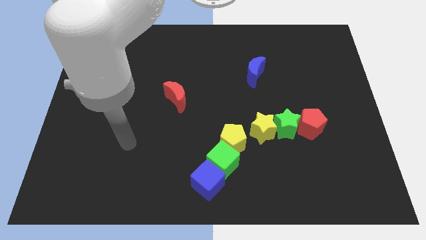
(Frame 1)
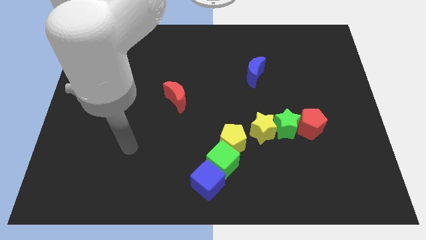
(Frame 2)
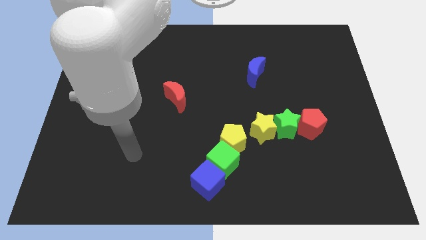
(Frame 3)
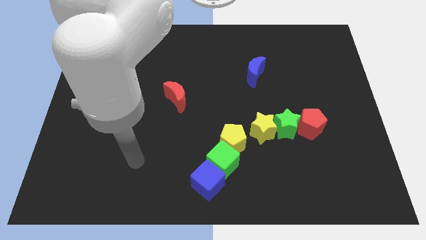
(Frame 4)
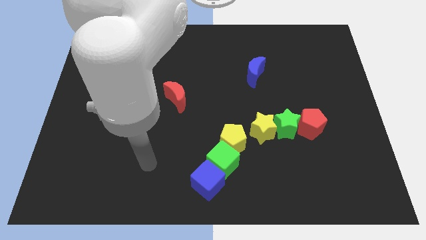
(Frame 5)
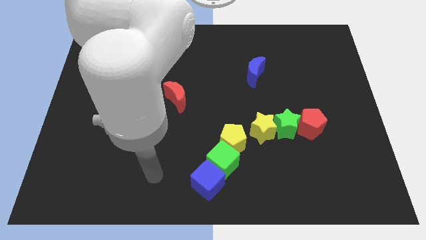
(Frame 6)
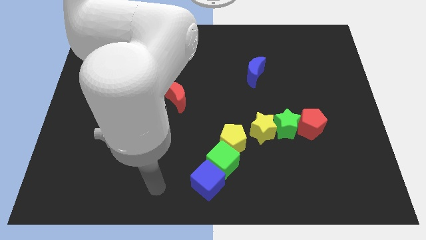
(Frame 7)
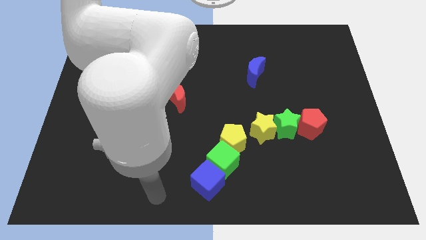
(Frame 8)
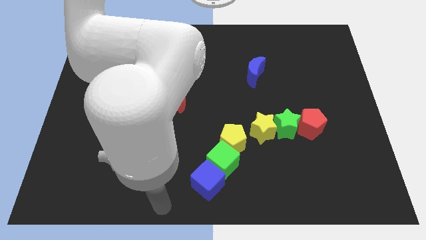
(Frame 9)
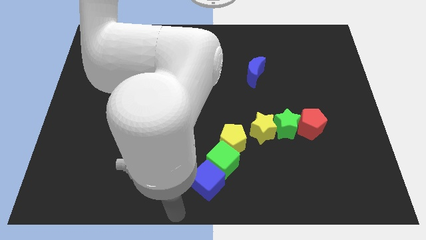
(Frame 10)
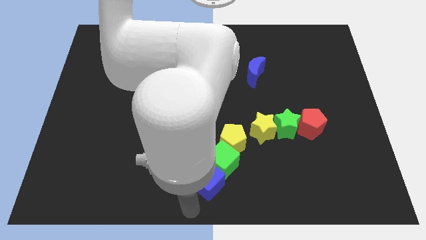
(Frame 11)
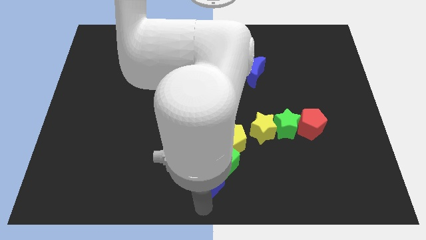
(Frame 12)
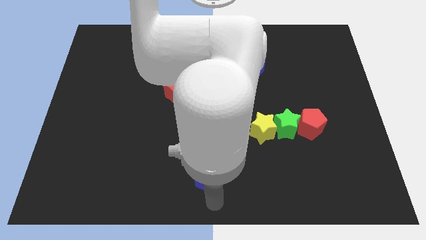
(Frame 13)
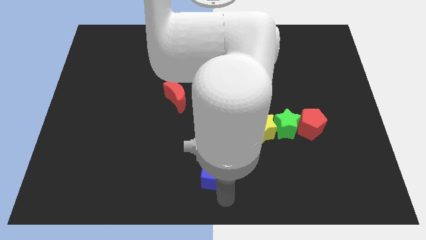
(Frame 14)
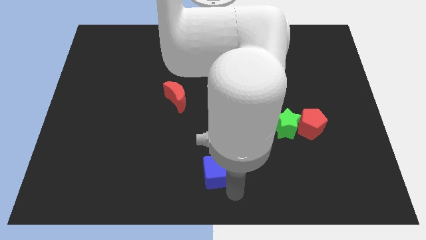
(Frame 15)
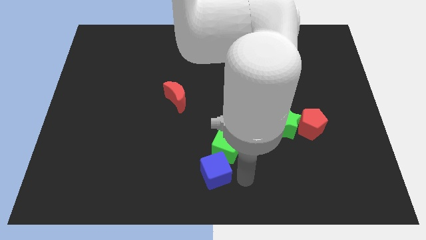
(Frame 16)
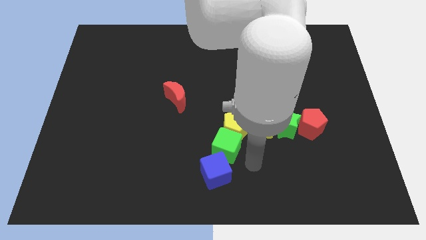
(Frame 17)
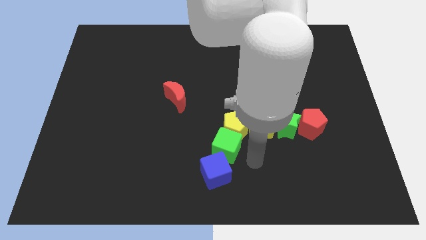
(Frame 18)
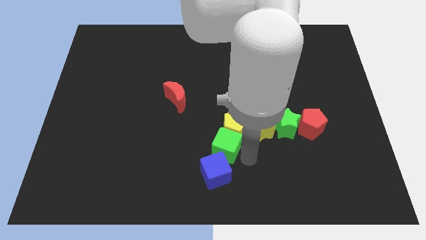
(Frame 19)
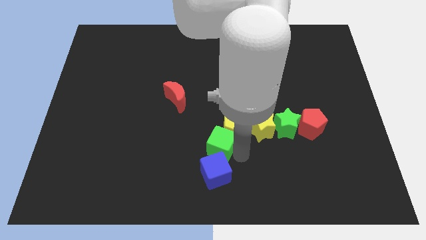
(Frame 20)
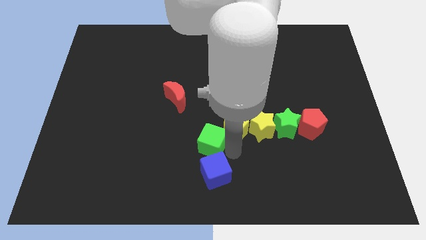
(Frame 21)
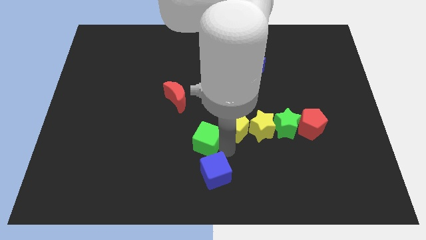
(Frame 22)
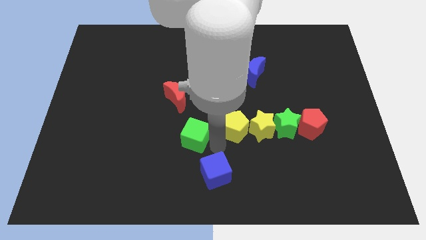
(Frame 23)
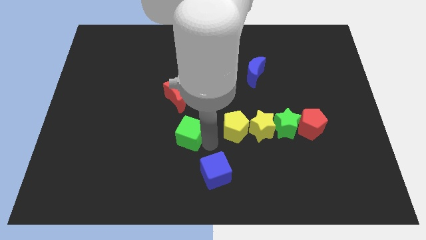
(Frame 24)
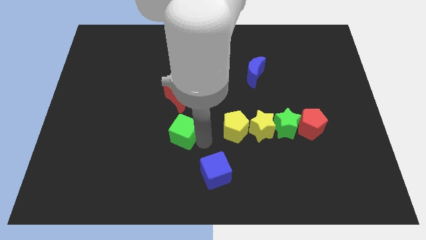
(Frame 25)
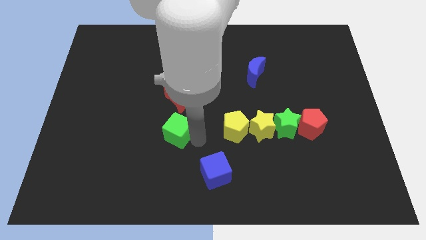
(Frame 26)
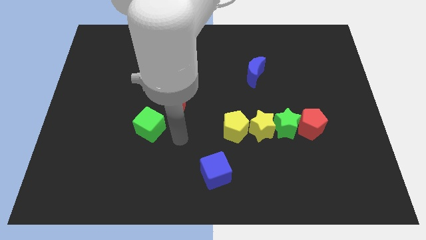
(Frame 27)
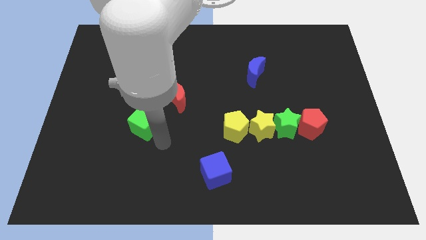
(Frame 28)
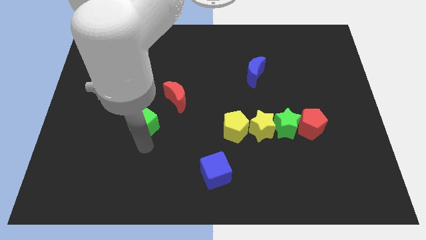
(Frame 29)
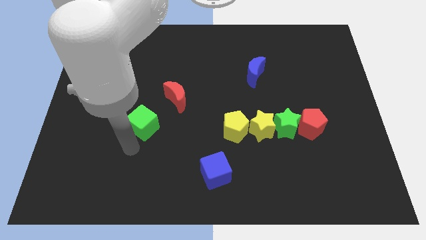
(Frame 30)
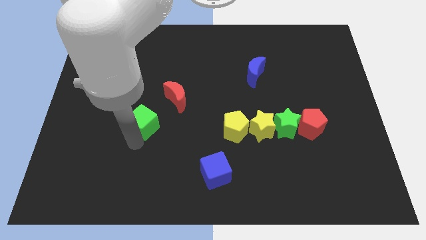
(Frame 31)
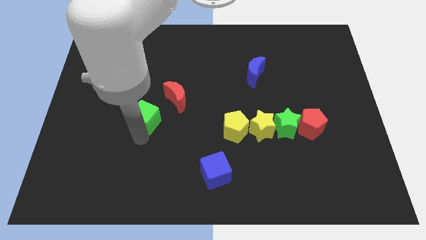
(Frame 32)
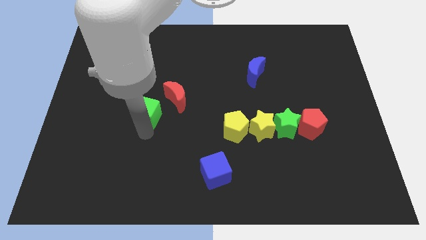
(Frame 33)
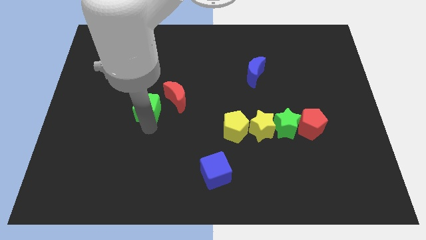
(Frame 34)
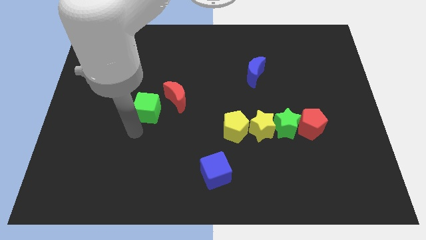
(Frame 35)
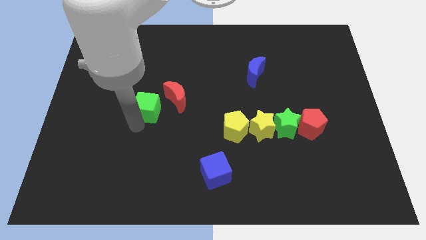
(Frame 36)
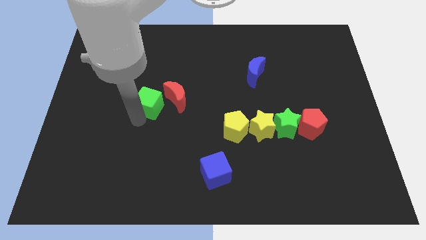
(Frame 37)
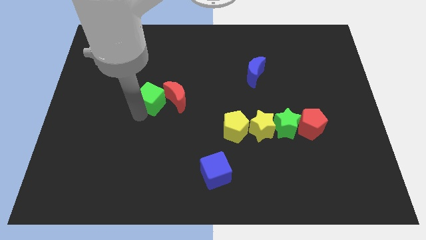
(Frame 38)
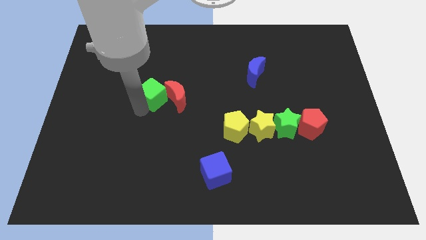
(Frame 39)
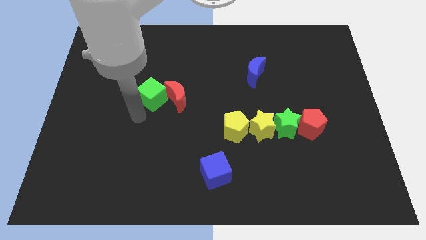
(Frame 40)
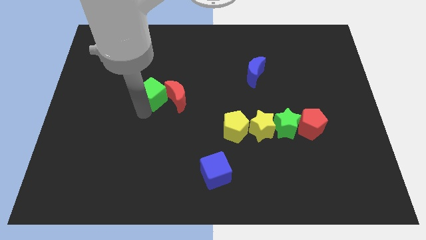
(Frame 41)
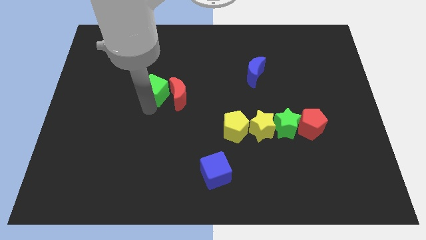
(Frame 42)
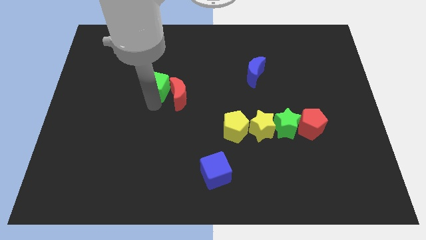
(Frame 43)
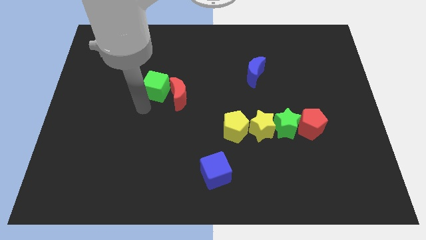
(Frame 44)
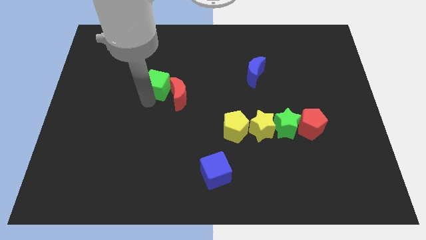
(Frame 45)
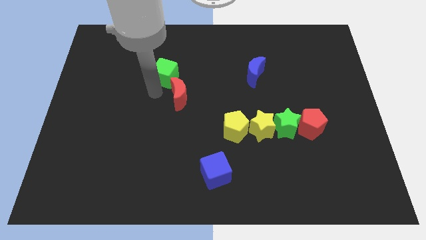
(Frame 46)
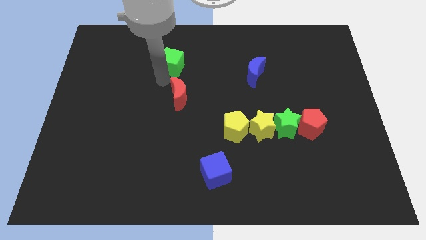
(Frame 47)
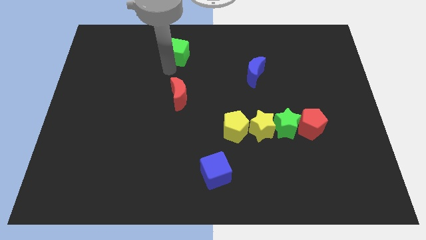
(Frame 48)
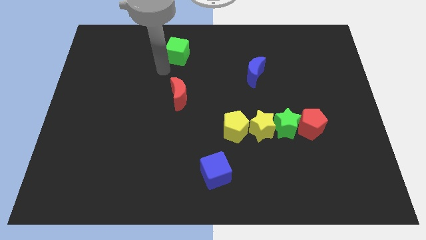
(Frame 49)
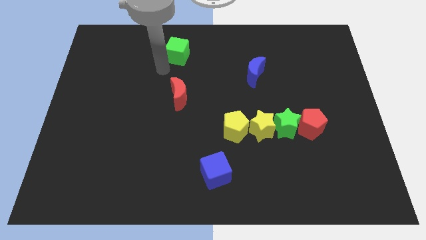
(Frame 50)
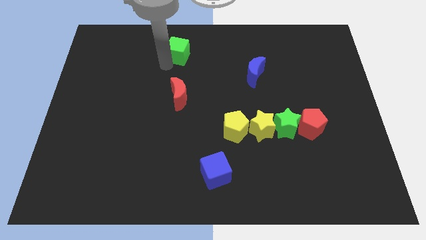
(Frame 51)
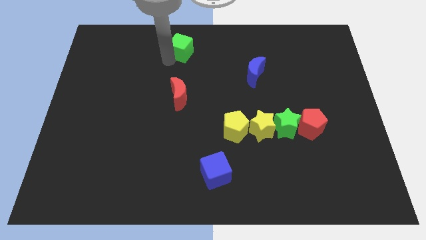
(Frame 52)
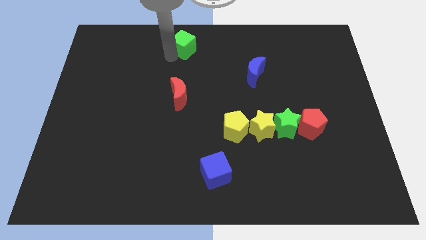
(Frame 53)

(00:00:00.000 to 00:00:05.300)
push the green cube to the top side

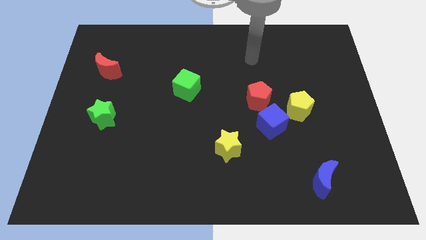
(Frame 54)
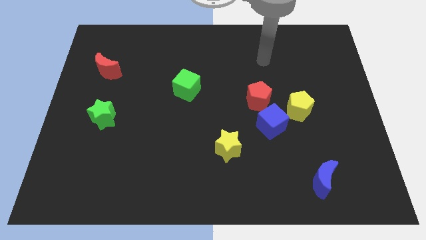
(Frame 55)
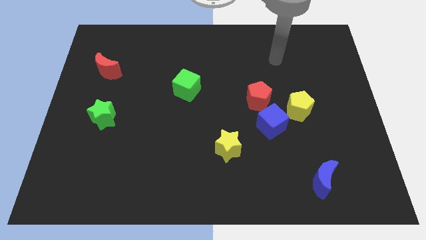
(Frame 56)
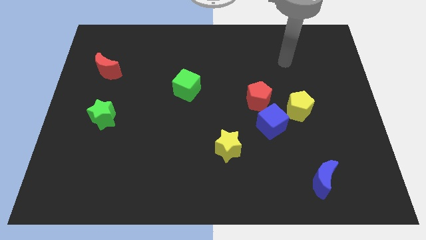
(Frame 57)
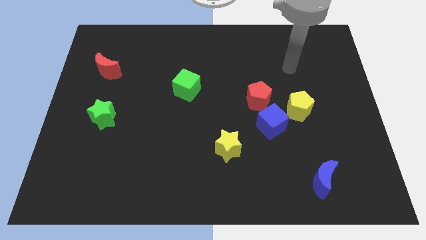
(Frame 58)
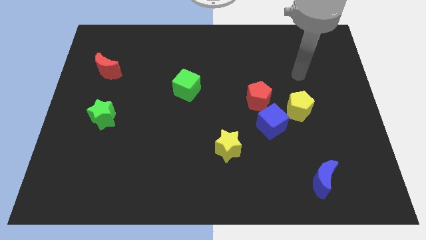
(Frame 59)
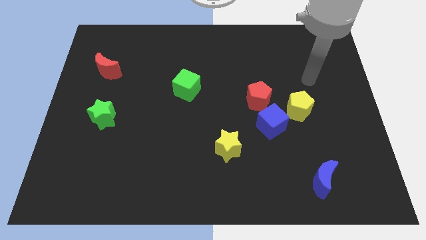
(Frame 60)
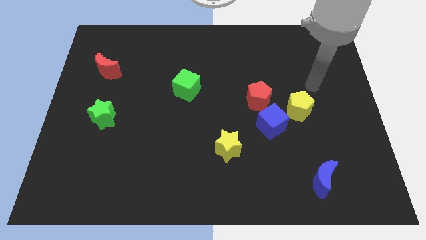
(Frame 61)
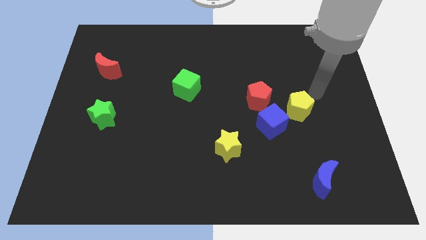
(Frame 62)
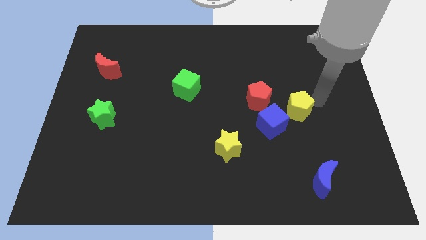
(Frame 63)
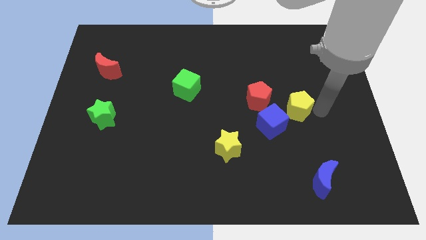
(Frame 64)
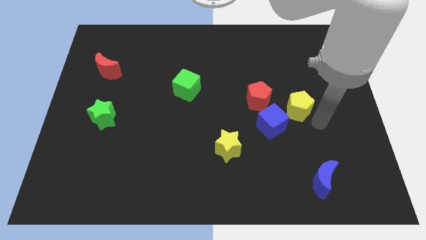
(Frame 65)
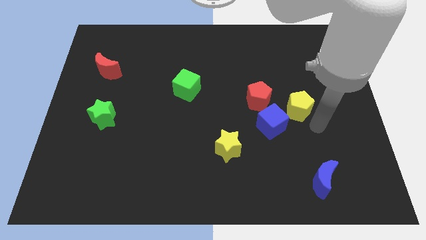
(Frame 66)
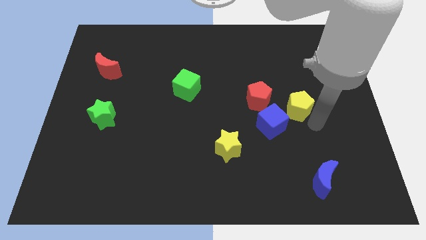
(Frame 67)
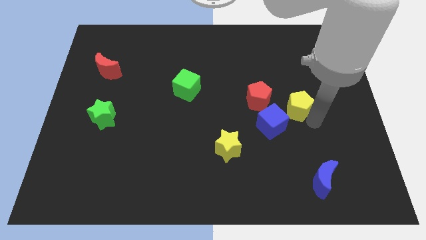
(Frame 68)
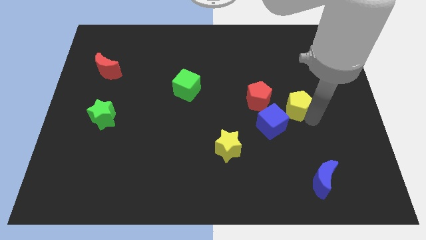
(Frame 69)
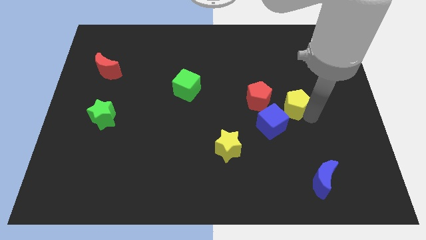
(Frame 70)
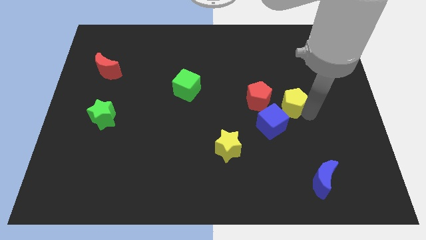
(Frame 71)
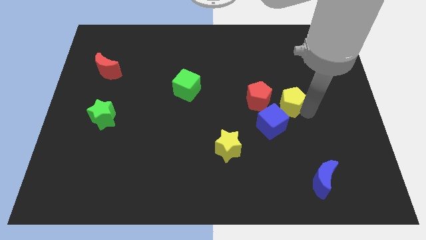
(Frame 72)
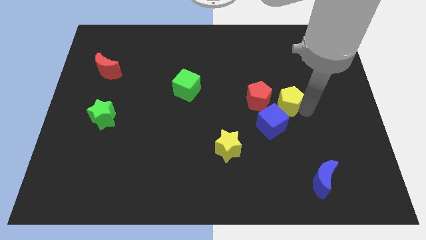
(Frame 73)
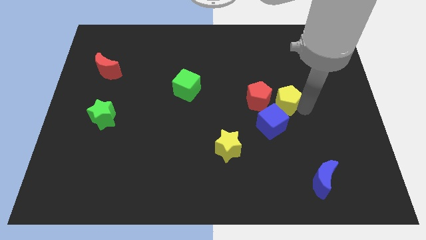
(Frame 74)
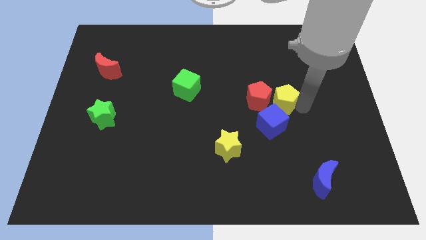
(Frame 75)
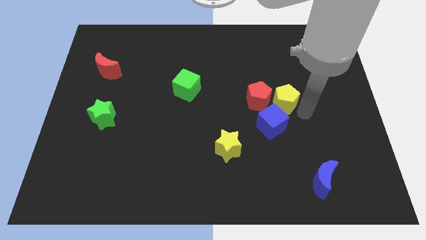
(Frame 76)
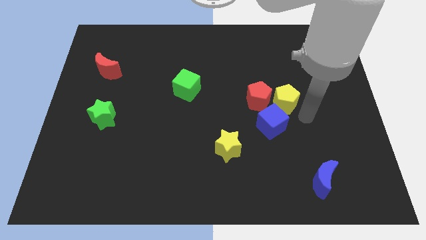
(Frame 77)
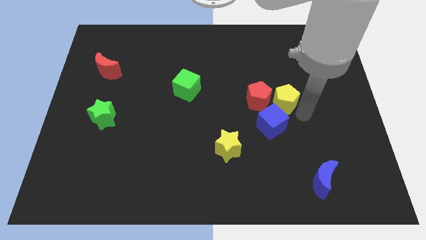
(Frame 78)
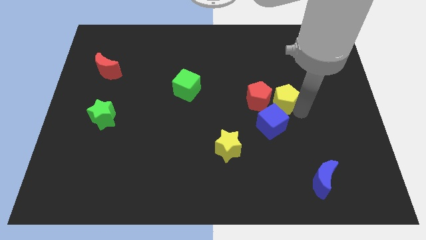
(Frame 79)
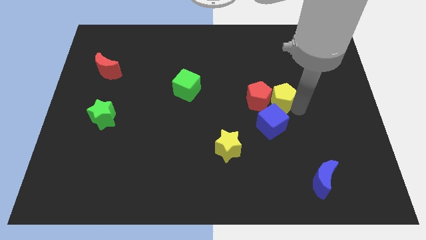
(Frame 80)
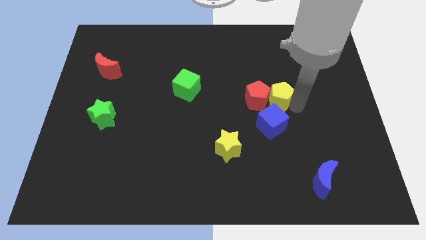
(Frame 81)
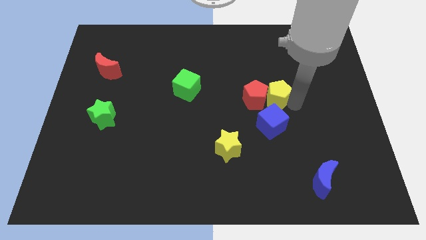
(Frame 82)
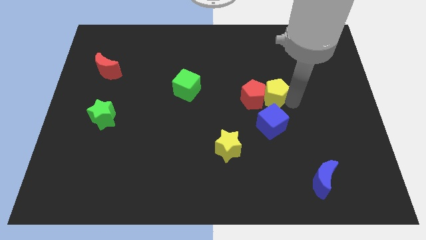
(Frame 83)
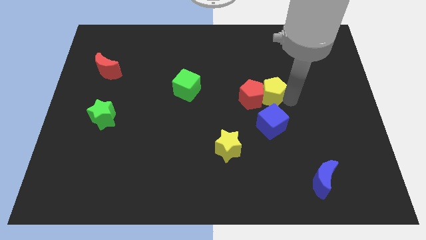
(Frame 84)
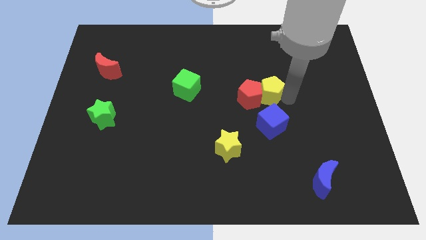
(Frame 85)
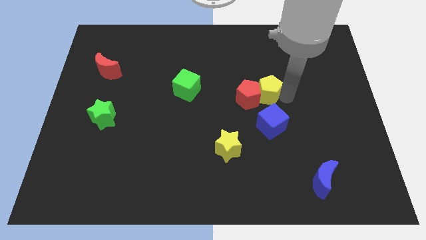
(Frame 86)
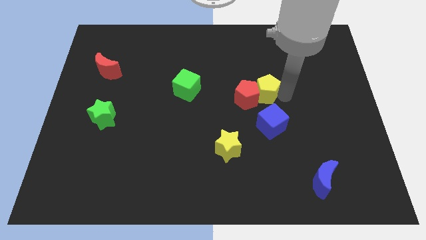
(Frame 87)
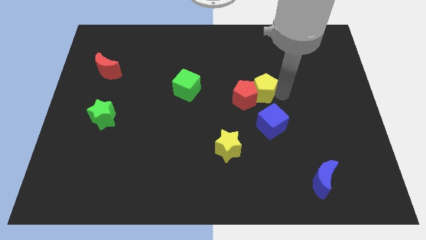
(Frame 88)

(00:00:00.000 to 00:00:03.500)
push the yellow pentagon to the middle
